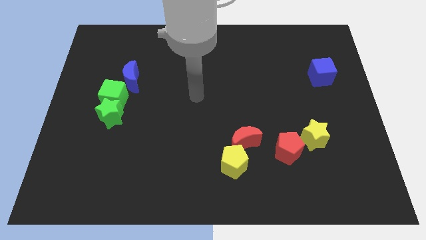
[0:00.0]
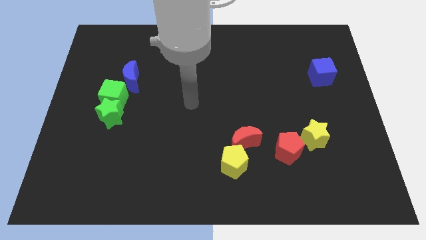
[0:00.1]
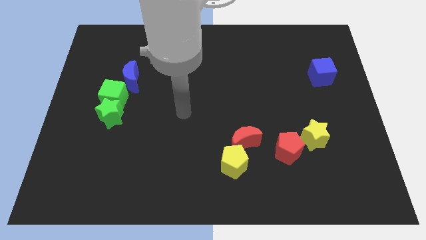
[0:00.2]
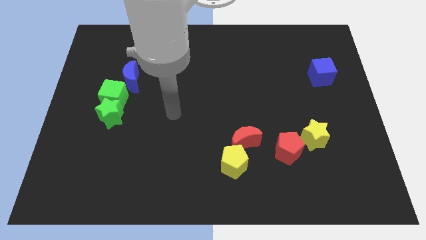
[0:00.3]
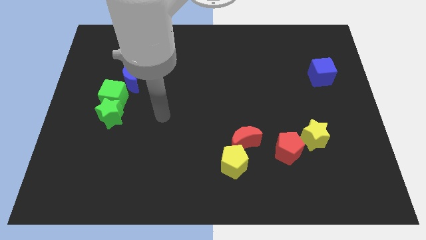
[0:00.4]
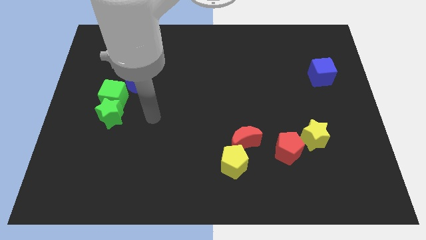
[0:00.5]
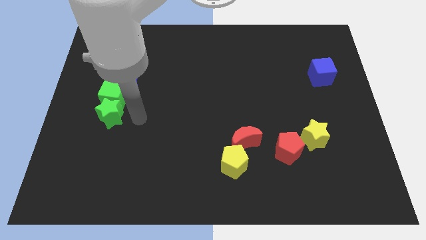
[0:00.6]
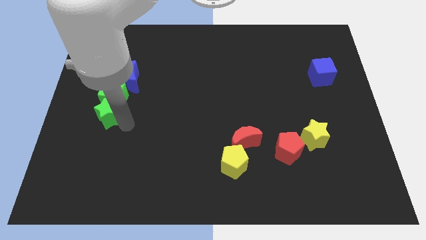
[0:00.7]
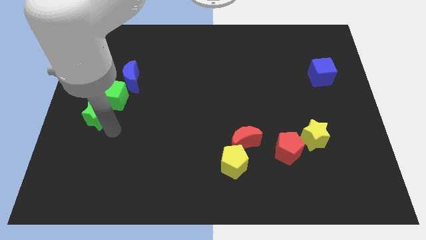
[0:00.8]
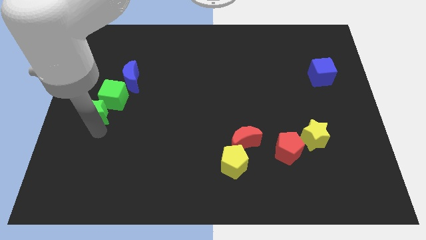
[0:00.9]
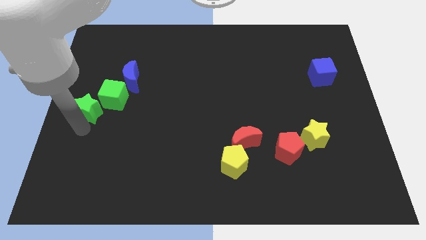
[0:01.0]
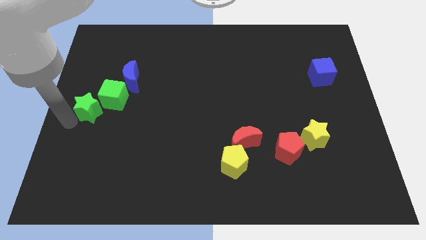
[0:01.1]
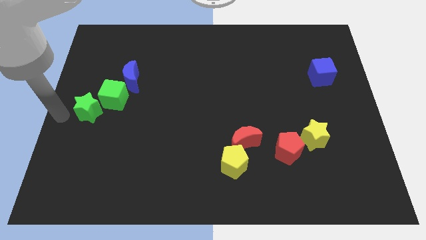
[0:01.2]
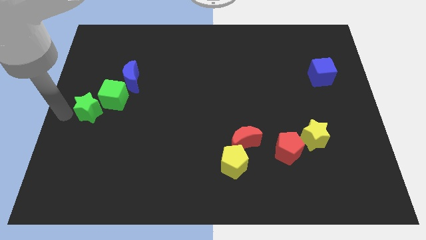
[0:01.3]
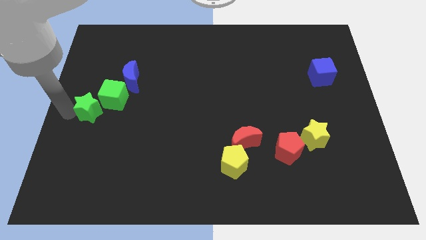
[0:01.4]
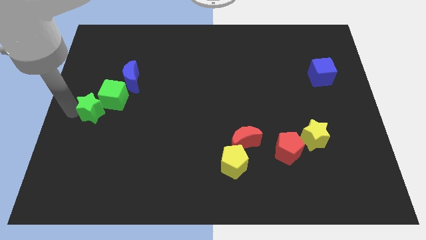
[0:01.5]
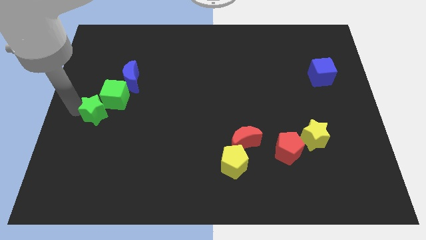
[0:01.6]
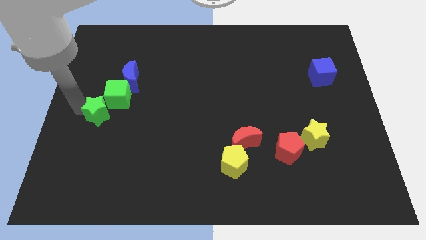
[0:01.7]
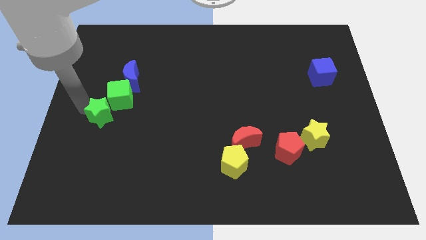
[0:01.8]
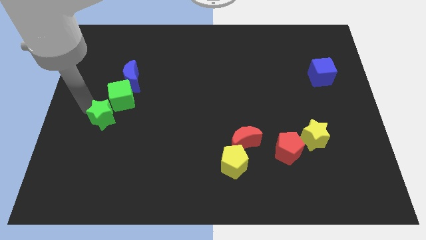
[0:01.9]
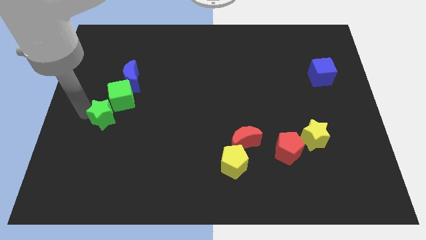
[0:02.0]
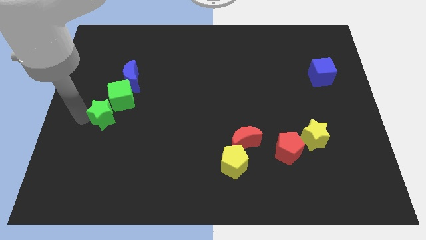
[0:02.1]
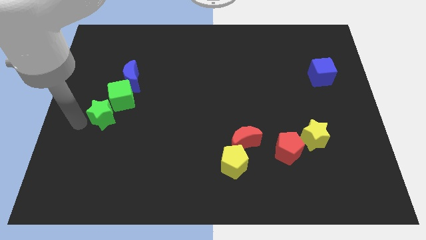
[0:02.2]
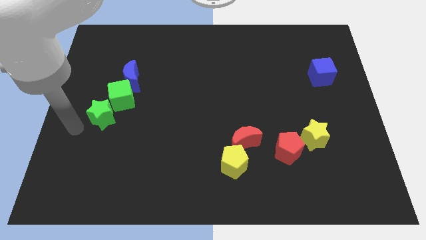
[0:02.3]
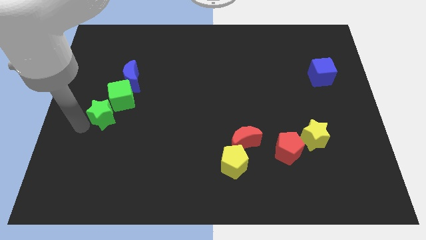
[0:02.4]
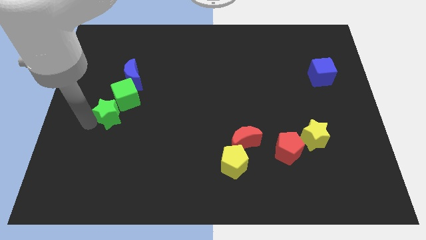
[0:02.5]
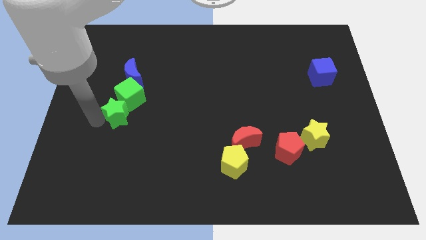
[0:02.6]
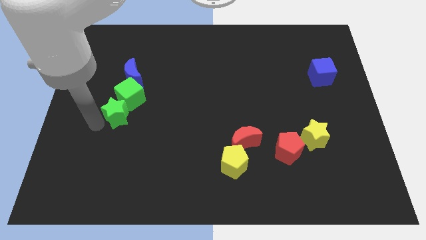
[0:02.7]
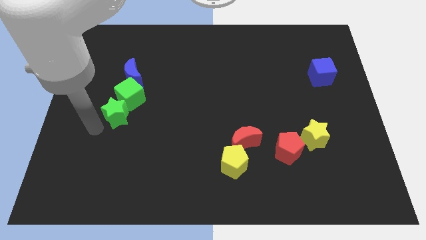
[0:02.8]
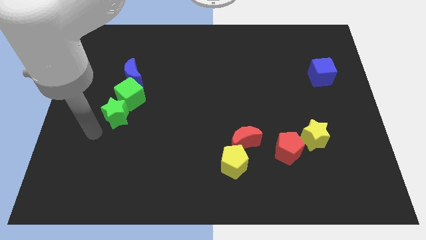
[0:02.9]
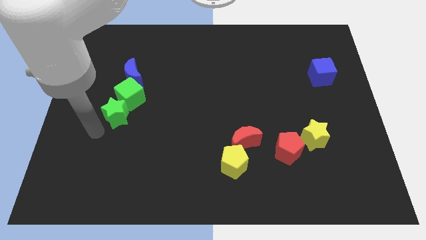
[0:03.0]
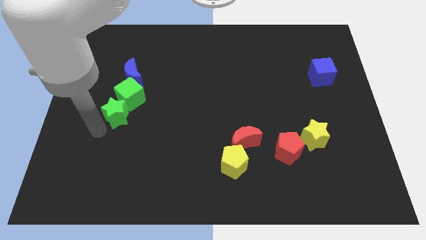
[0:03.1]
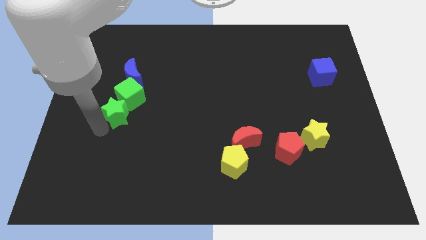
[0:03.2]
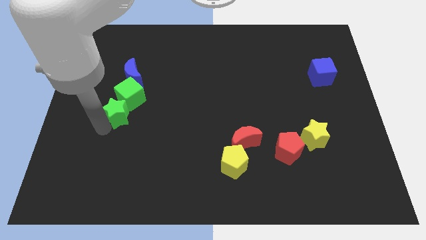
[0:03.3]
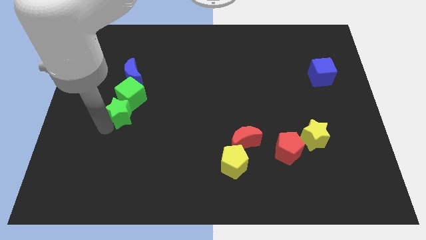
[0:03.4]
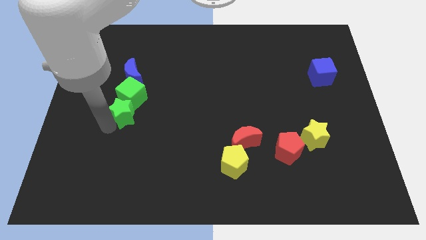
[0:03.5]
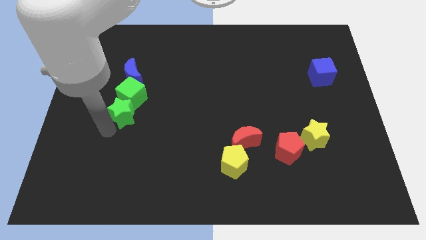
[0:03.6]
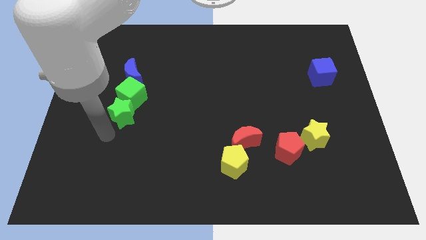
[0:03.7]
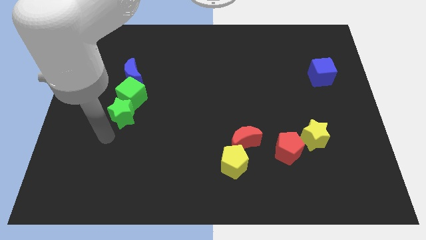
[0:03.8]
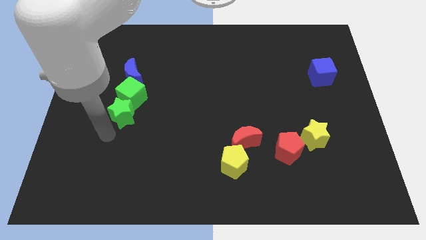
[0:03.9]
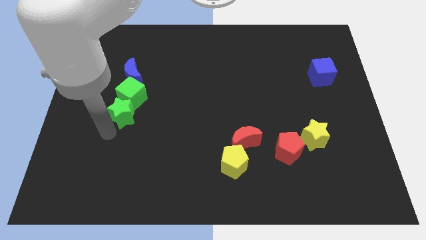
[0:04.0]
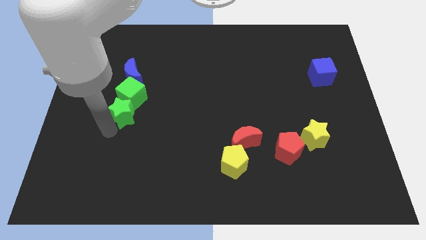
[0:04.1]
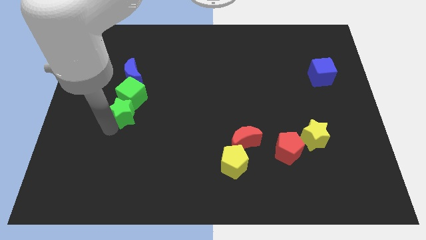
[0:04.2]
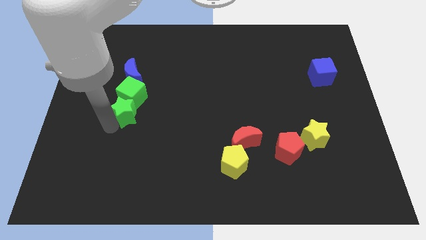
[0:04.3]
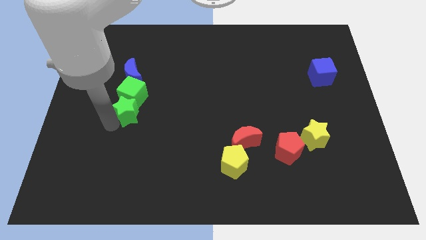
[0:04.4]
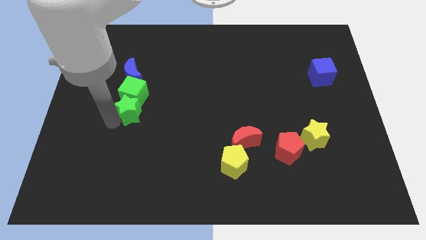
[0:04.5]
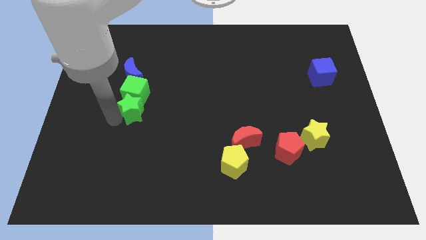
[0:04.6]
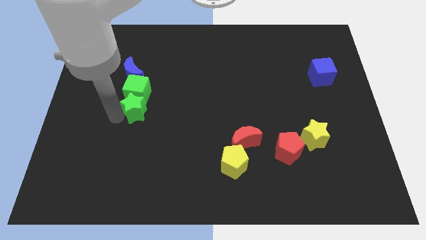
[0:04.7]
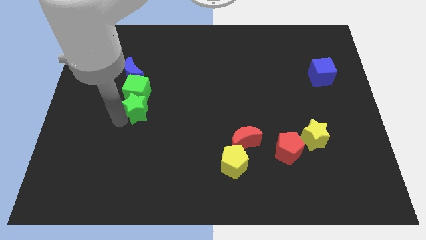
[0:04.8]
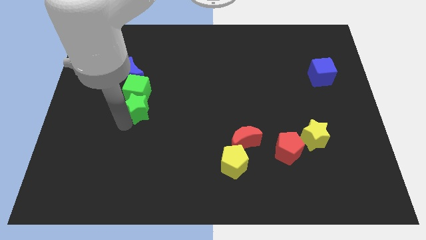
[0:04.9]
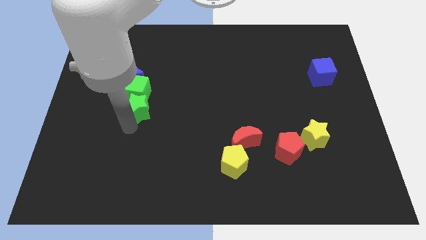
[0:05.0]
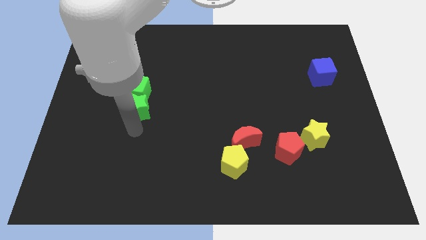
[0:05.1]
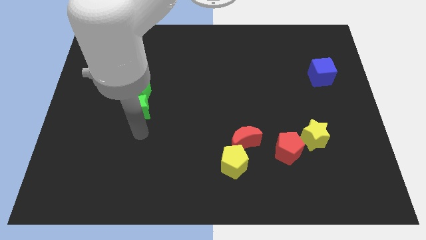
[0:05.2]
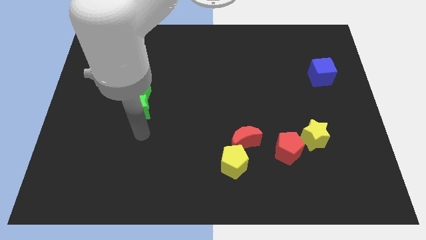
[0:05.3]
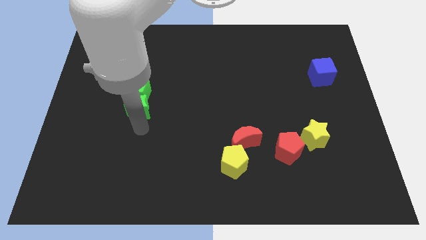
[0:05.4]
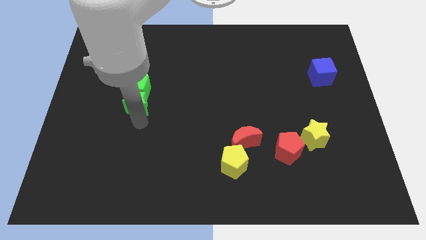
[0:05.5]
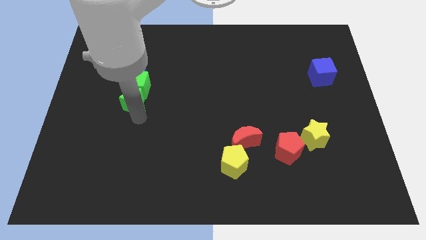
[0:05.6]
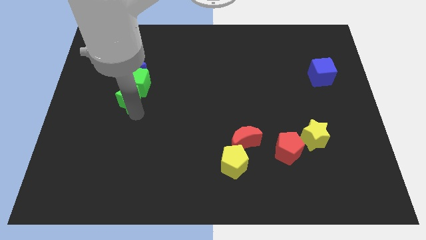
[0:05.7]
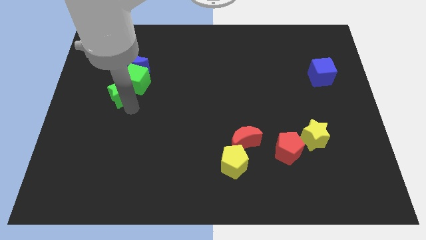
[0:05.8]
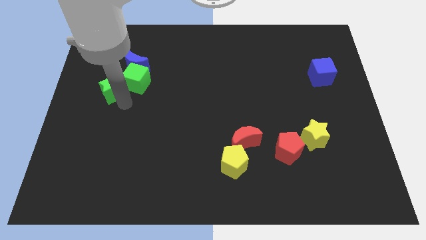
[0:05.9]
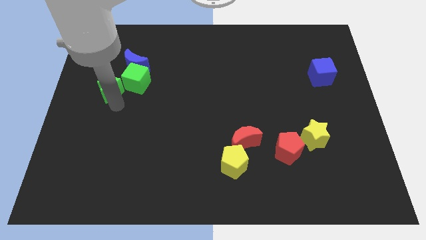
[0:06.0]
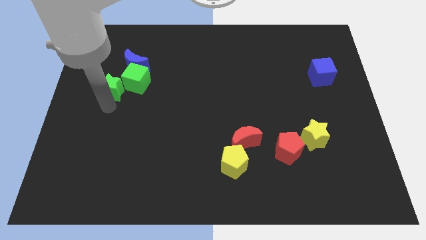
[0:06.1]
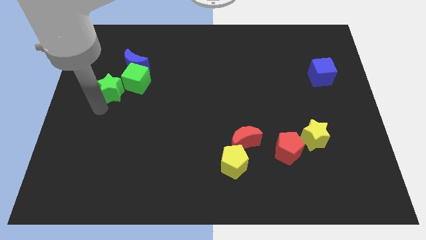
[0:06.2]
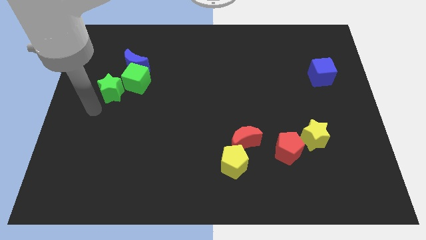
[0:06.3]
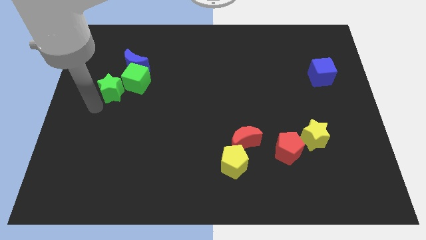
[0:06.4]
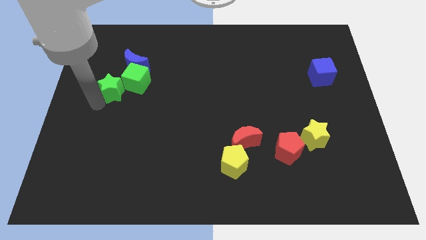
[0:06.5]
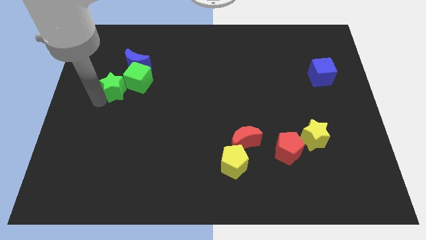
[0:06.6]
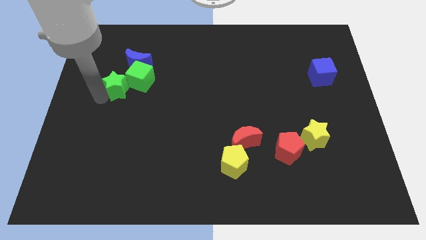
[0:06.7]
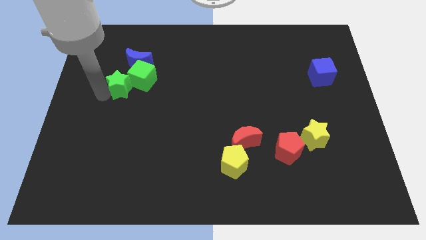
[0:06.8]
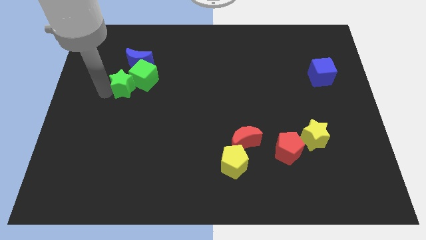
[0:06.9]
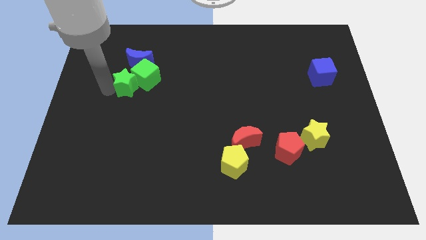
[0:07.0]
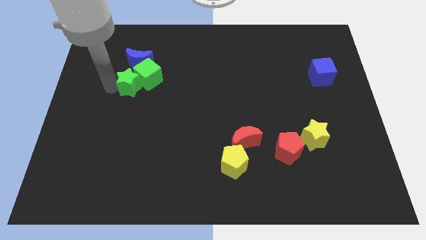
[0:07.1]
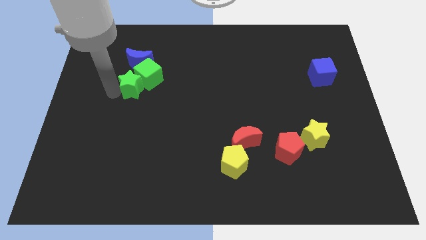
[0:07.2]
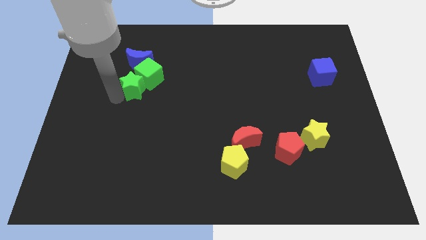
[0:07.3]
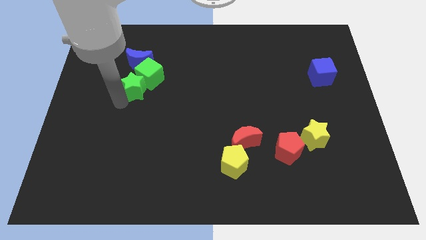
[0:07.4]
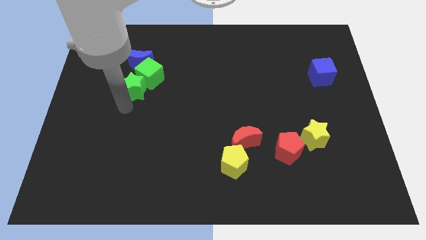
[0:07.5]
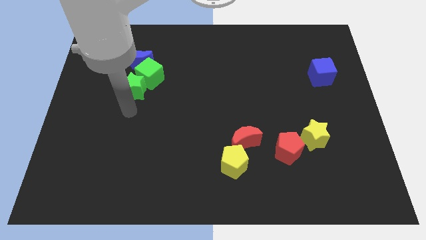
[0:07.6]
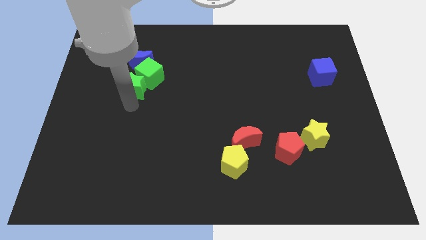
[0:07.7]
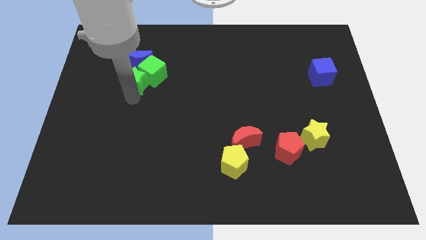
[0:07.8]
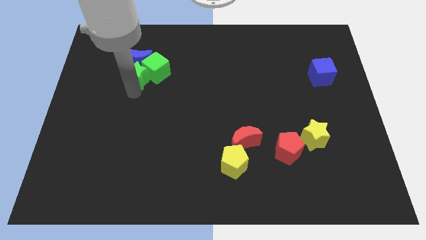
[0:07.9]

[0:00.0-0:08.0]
move the green star towards the blue moon
